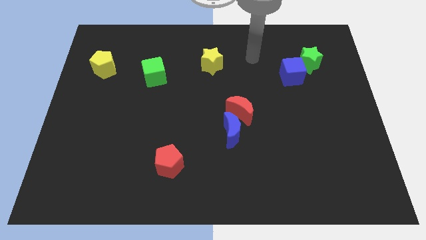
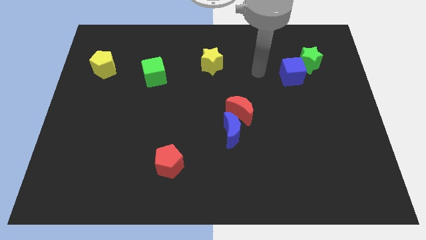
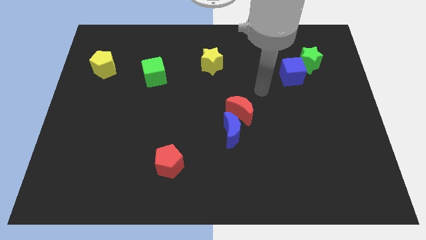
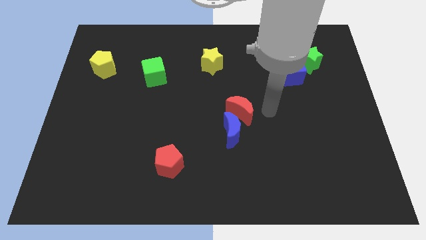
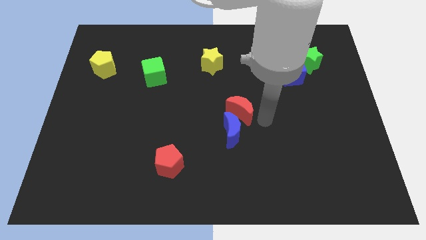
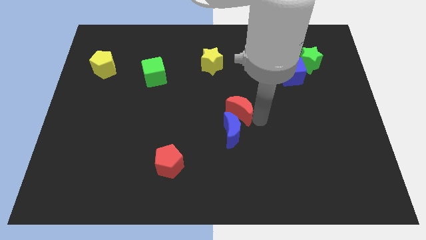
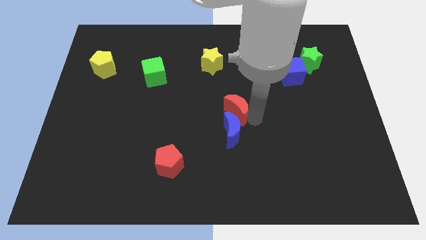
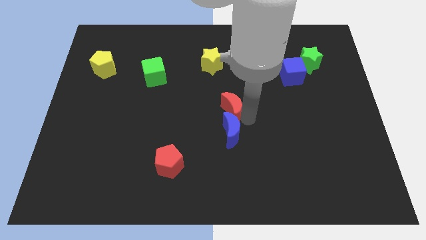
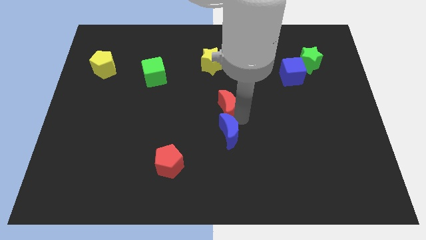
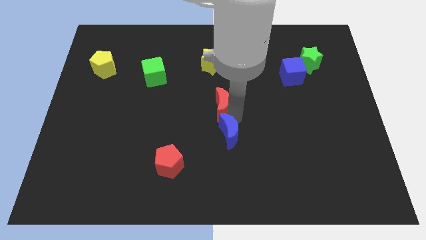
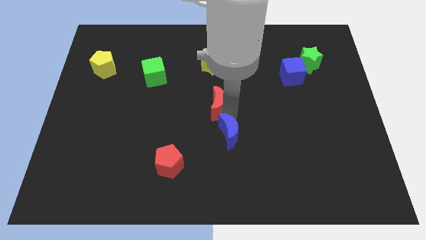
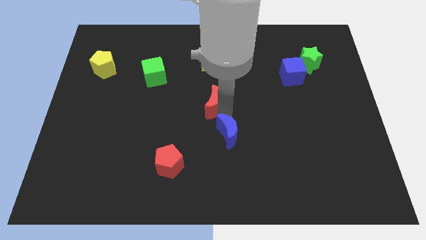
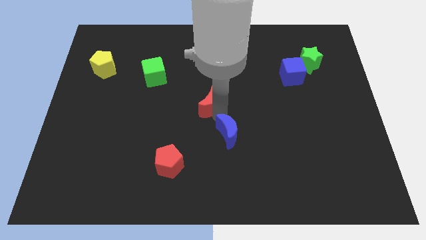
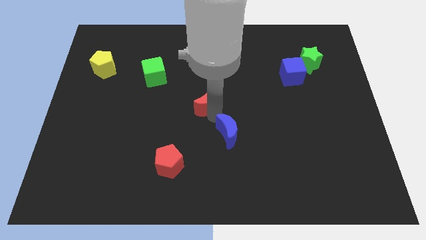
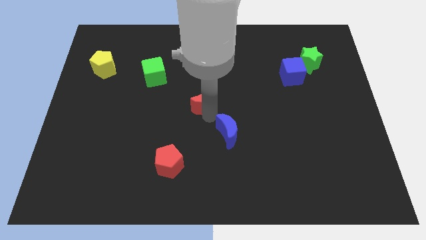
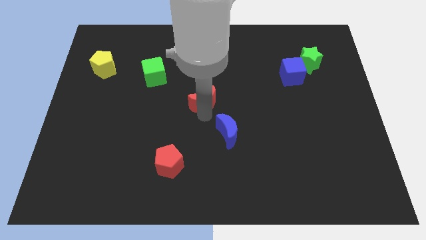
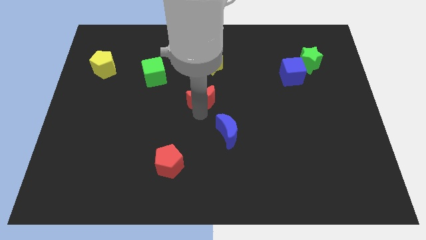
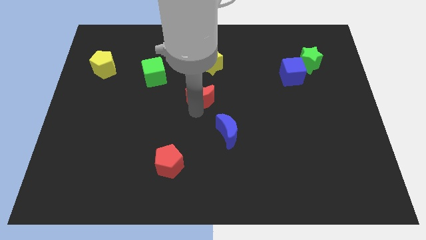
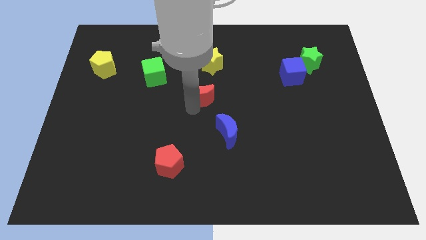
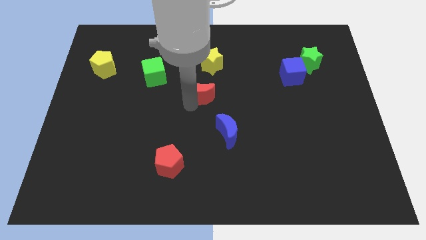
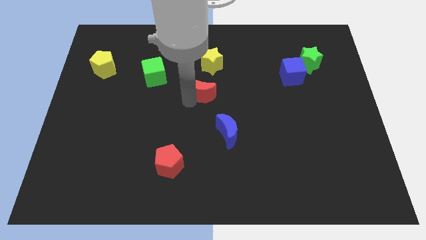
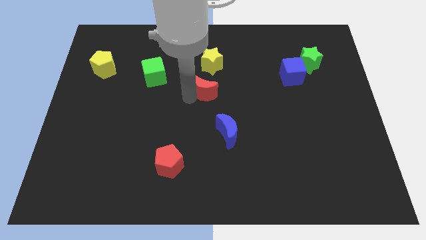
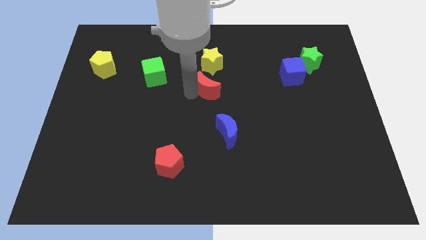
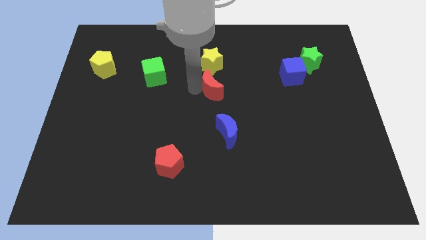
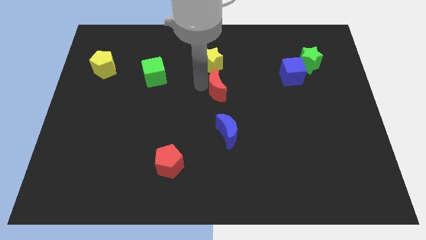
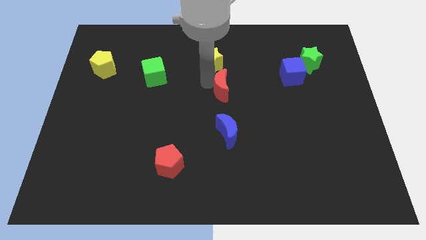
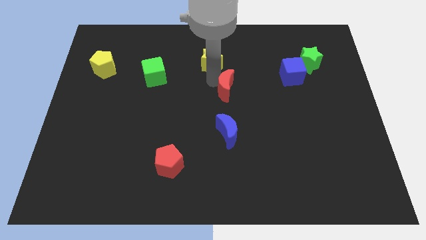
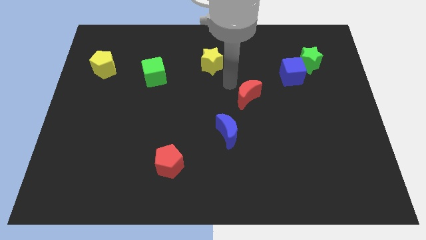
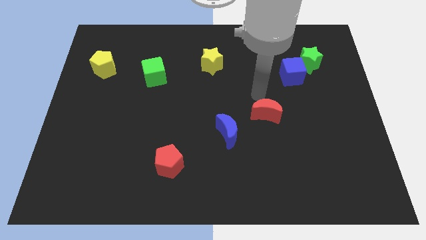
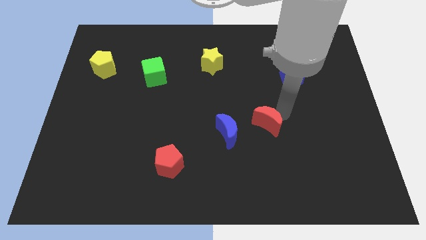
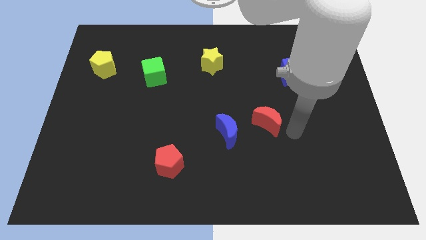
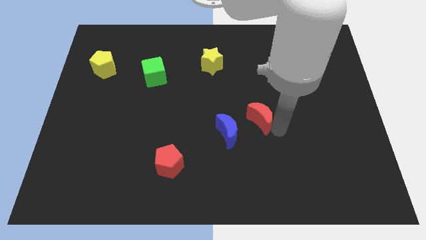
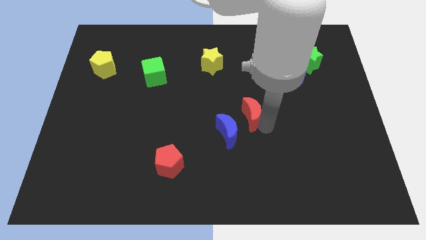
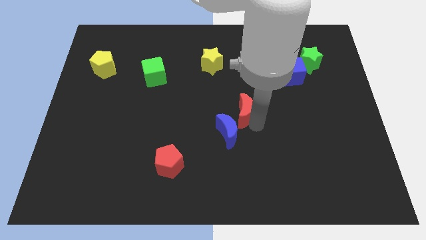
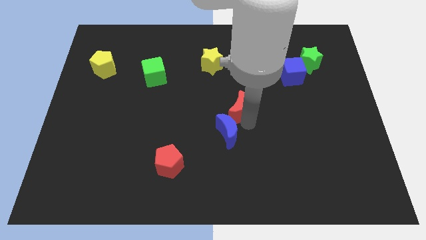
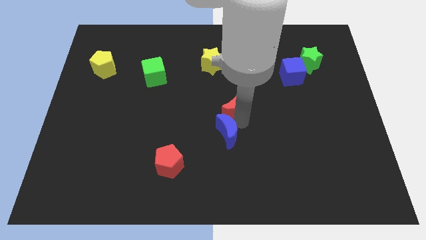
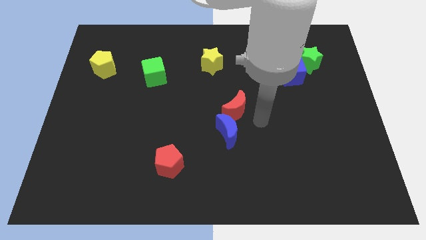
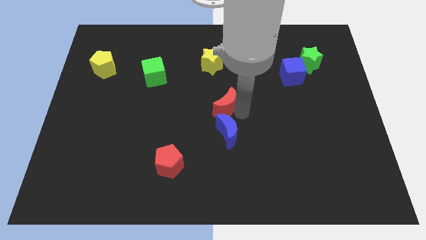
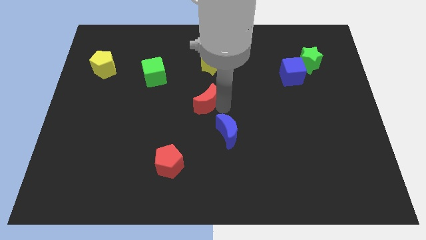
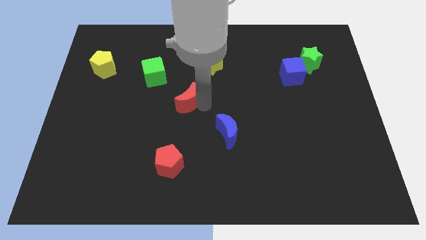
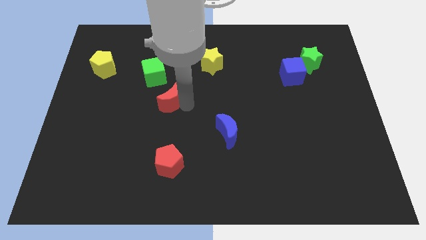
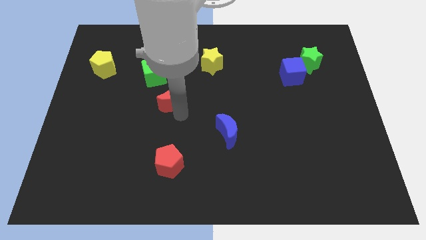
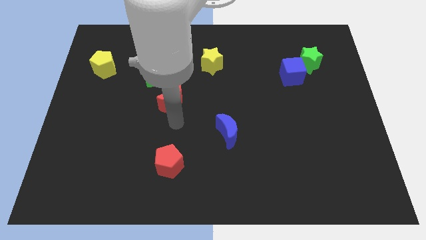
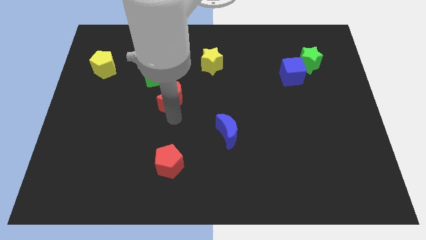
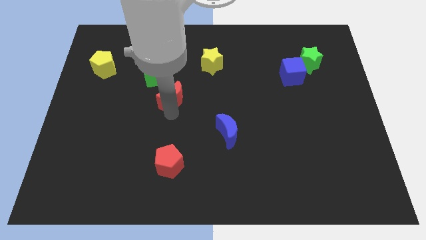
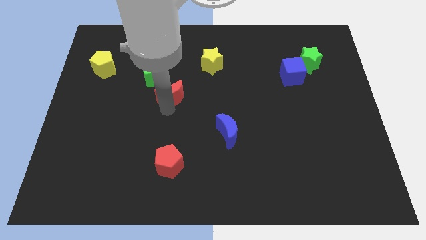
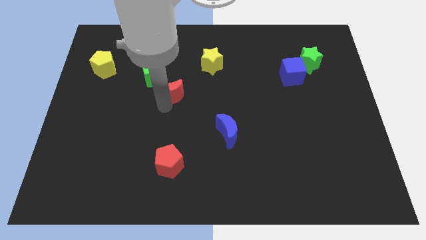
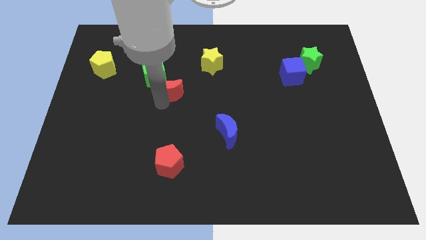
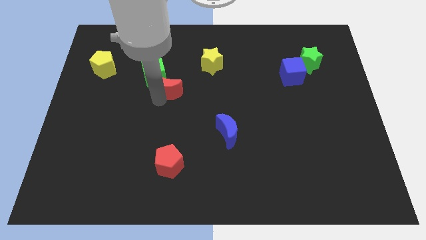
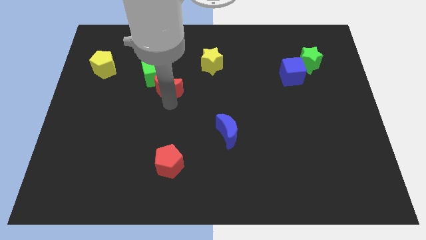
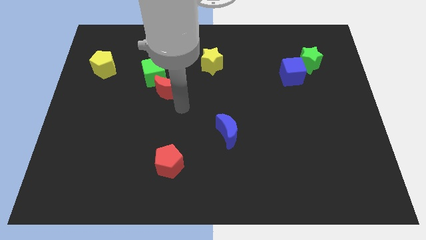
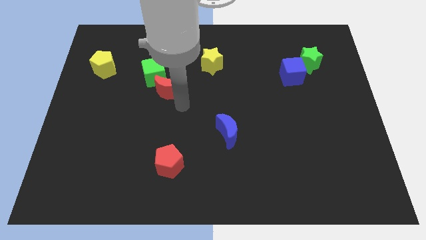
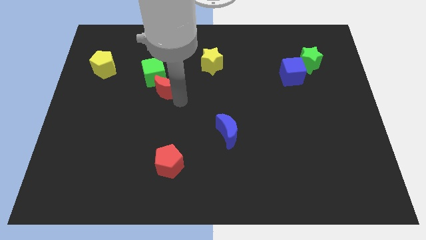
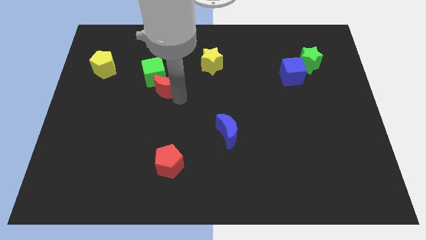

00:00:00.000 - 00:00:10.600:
move the red moon next to the green cube

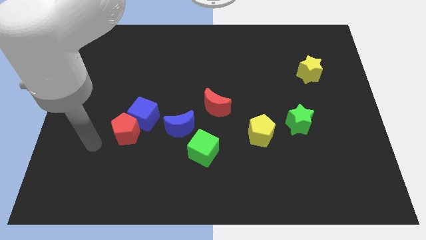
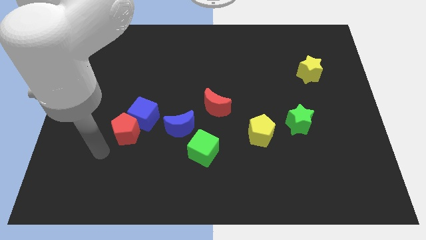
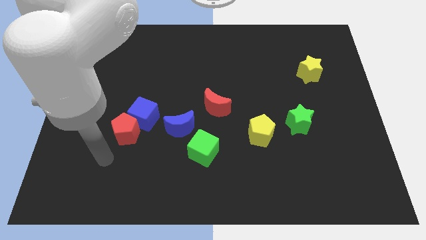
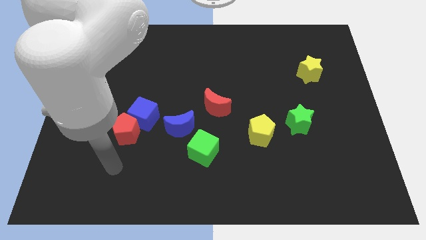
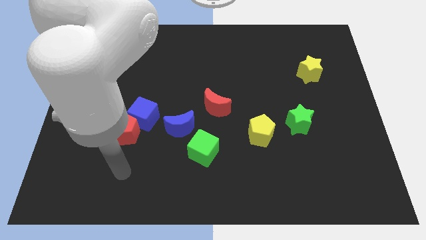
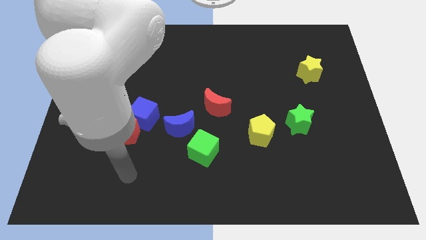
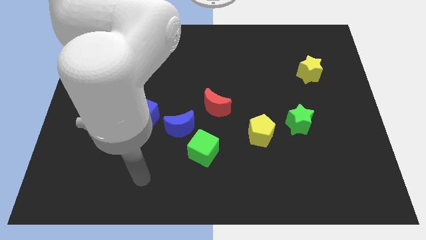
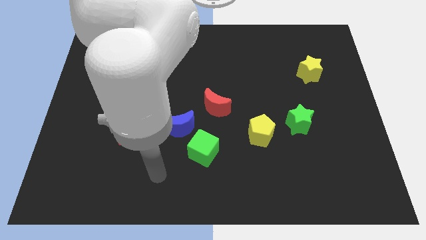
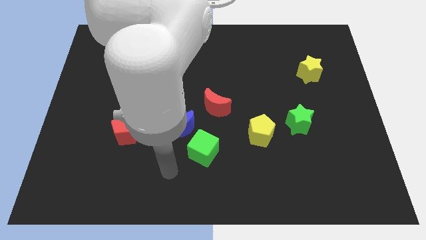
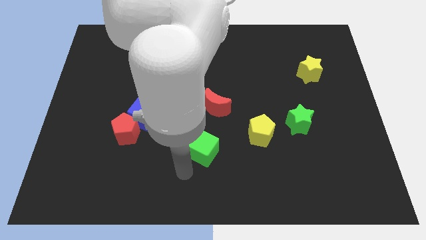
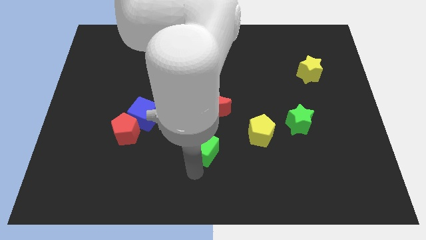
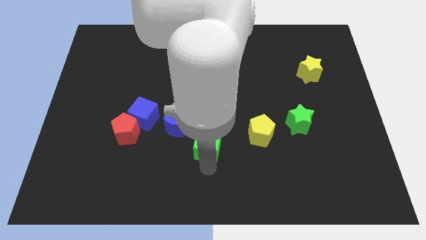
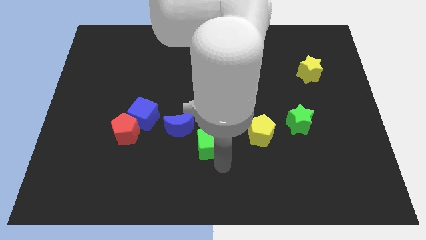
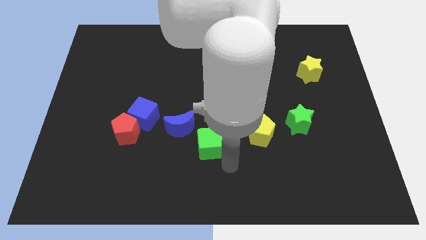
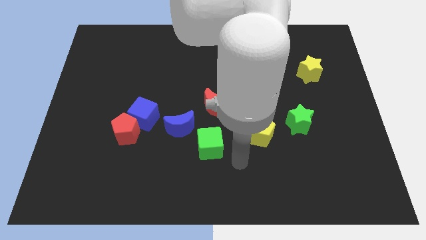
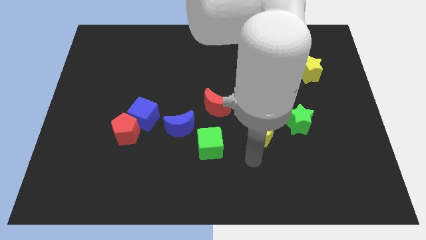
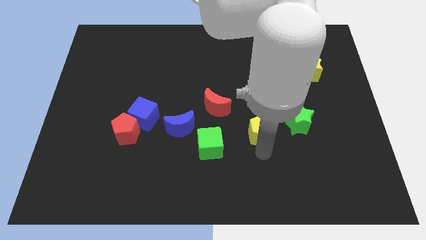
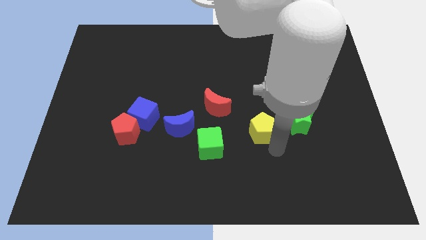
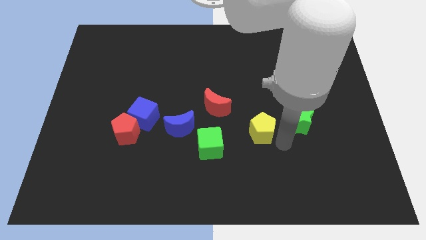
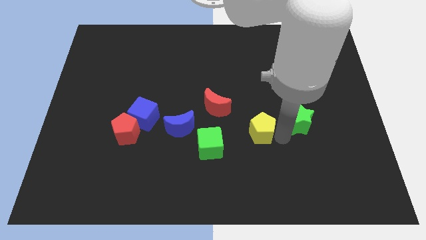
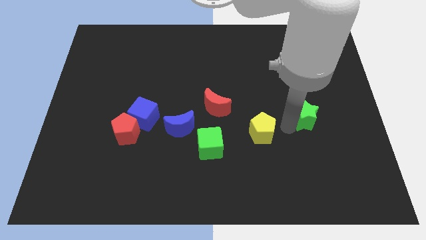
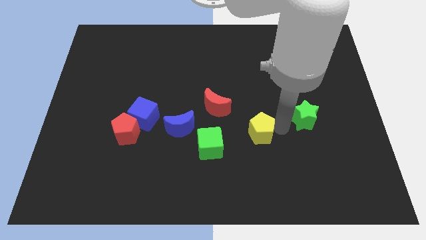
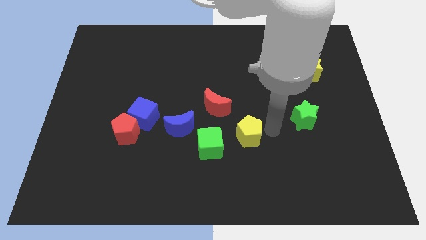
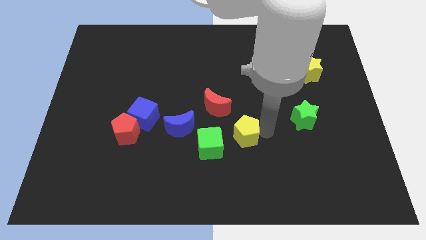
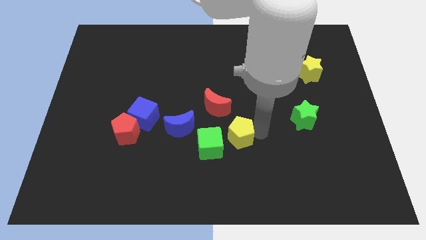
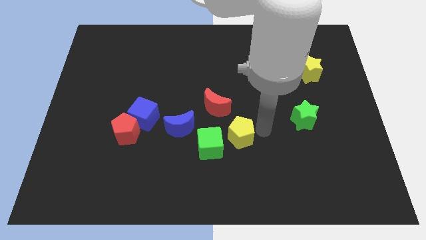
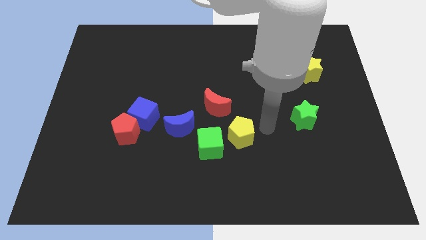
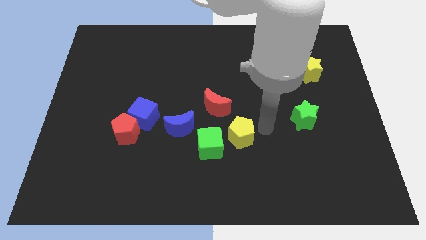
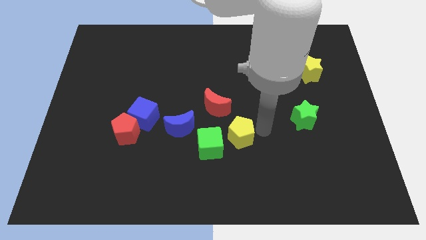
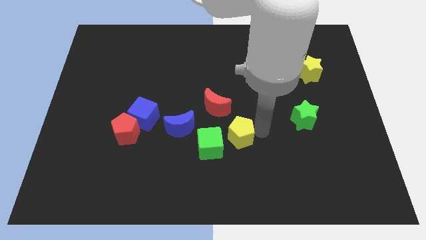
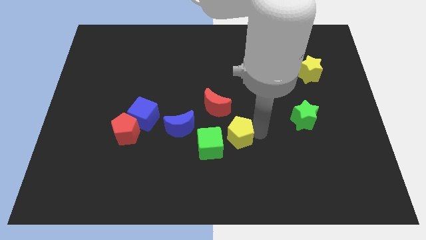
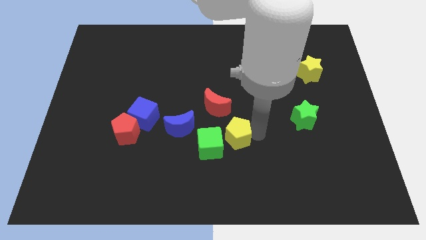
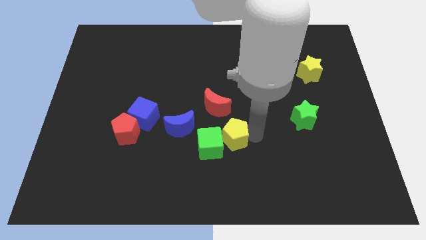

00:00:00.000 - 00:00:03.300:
move the yellow pentagon to the green cube
